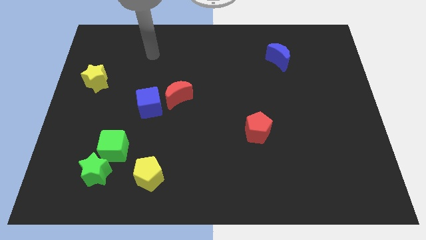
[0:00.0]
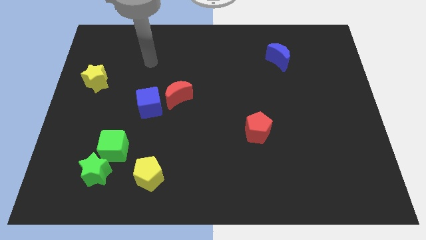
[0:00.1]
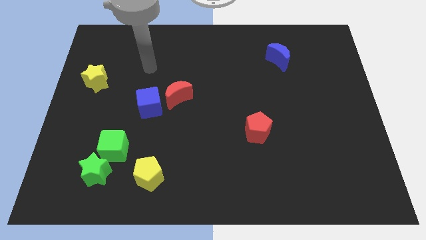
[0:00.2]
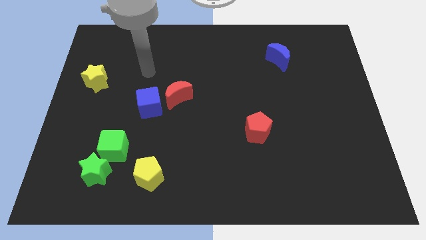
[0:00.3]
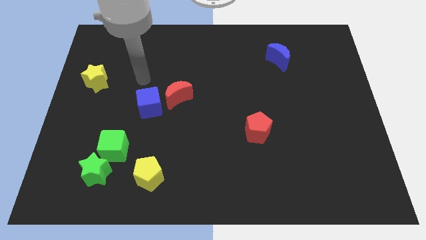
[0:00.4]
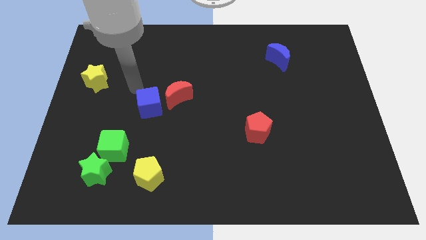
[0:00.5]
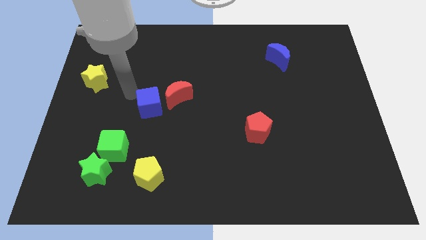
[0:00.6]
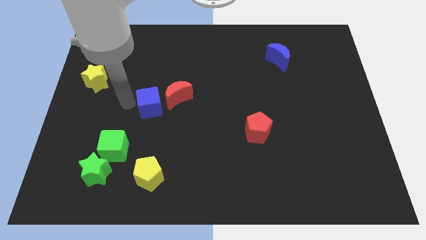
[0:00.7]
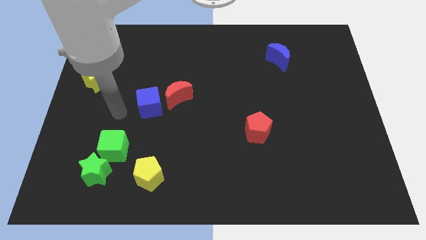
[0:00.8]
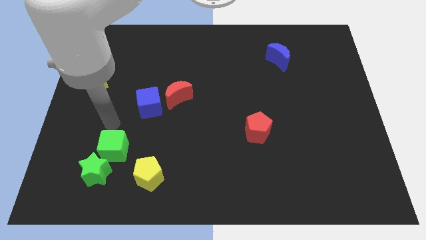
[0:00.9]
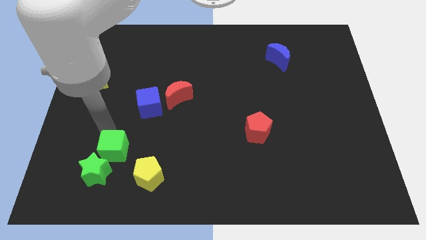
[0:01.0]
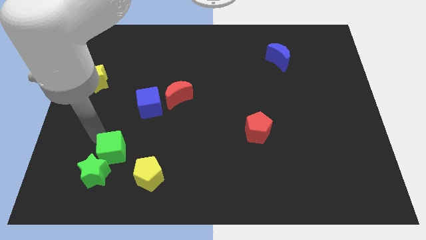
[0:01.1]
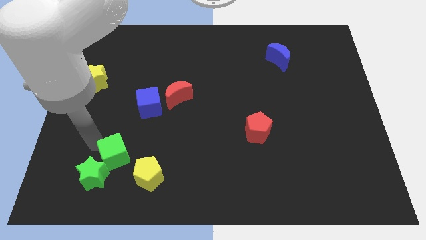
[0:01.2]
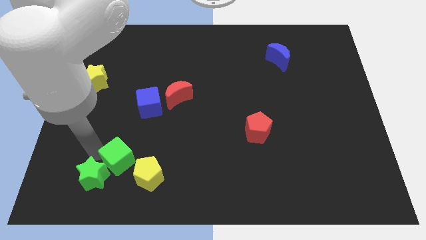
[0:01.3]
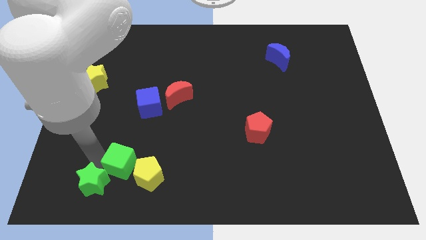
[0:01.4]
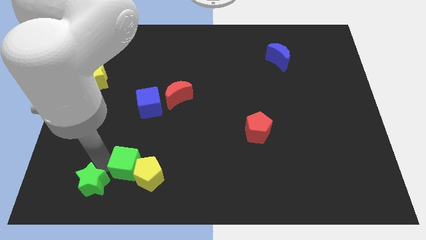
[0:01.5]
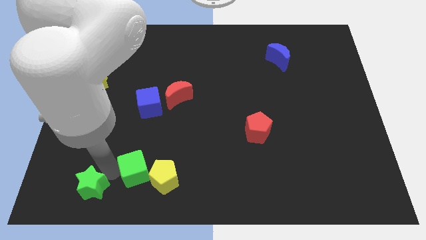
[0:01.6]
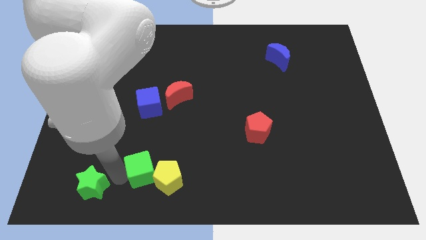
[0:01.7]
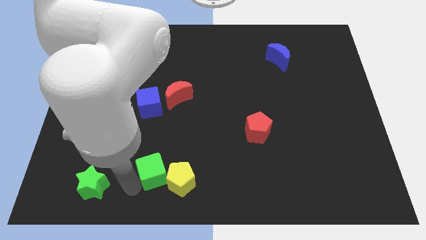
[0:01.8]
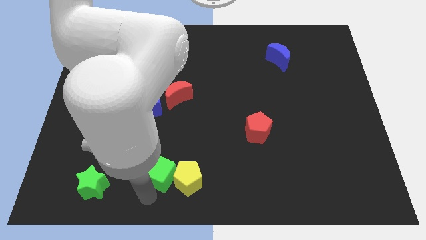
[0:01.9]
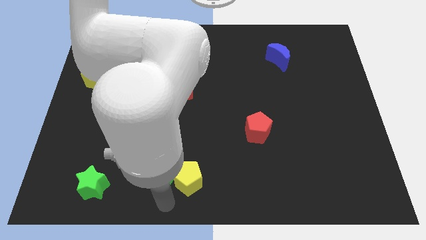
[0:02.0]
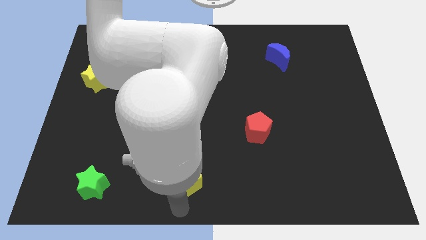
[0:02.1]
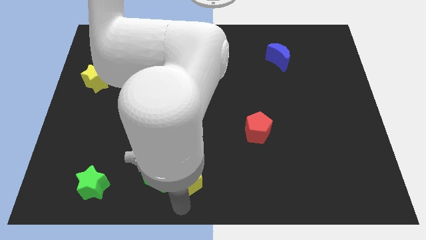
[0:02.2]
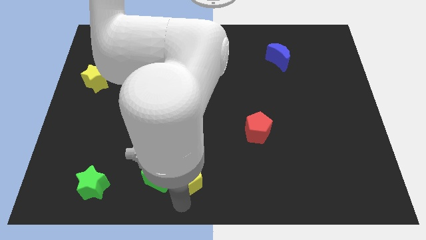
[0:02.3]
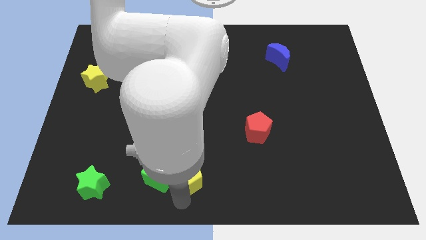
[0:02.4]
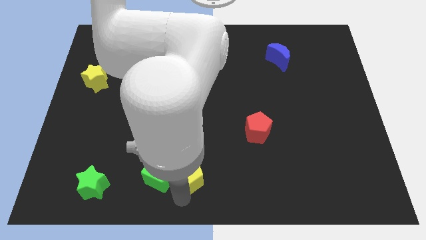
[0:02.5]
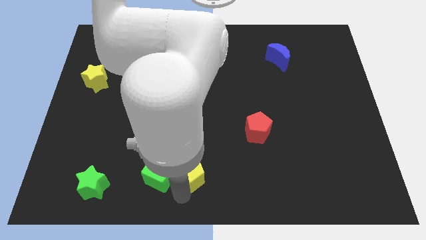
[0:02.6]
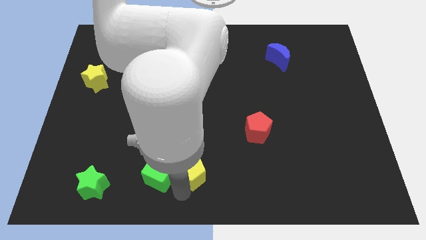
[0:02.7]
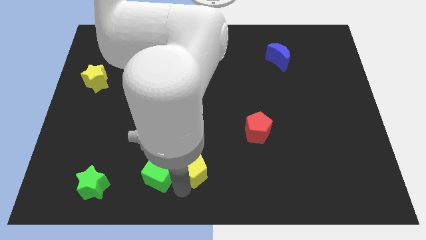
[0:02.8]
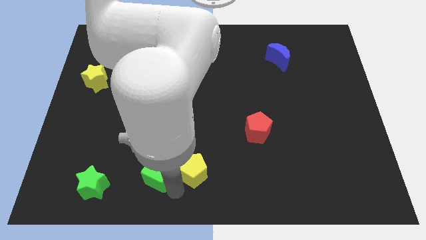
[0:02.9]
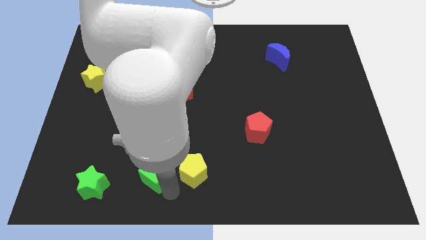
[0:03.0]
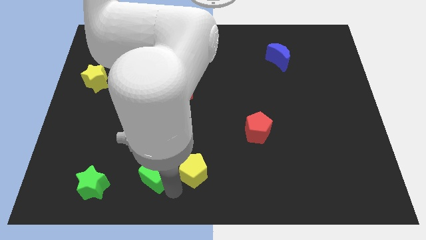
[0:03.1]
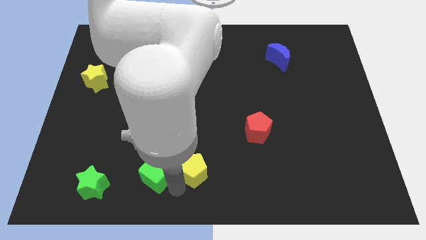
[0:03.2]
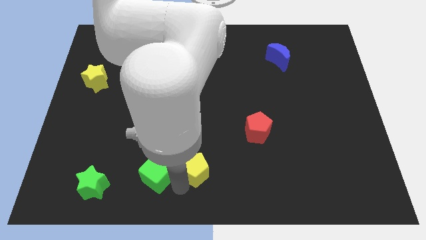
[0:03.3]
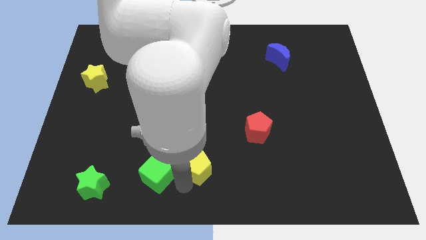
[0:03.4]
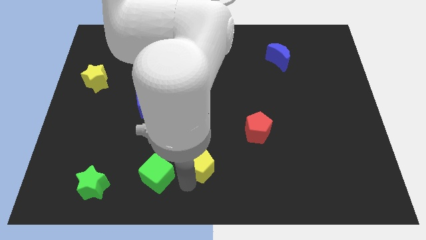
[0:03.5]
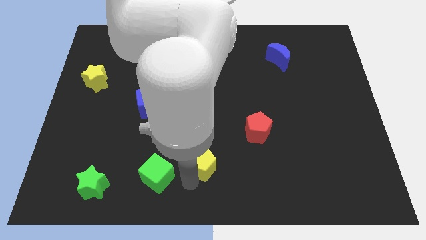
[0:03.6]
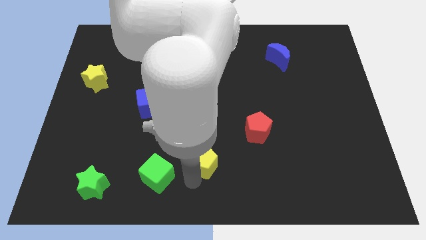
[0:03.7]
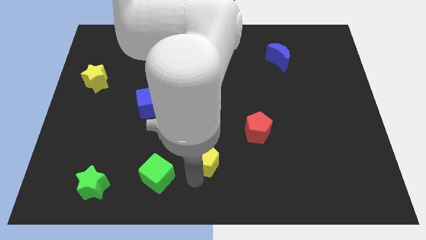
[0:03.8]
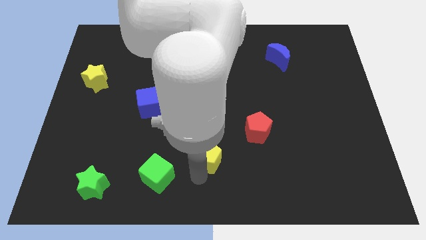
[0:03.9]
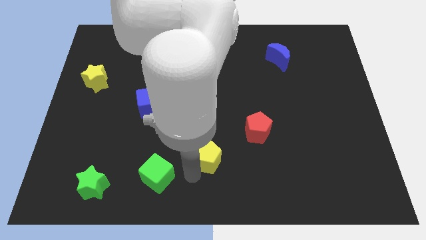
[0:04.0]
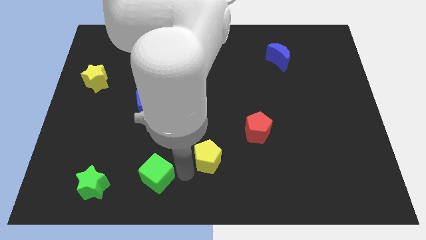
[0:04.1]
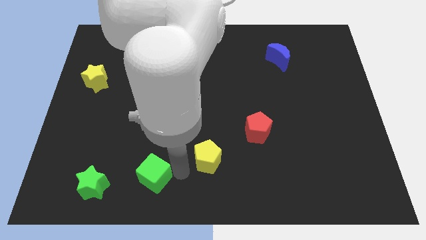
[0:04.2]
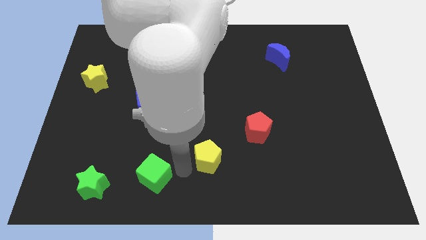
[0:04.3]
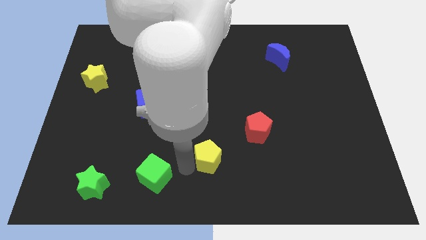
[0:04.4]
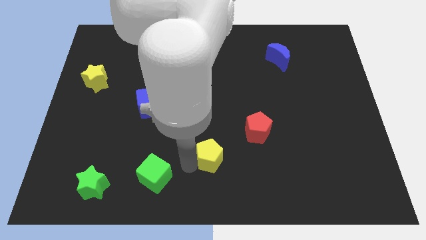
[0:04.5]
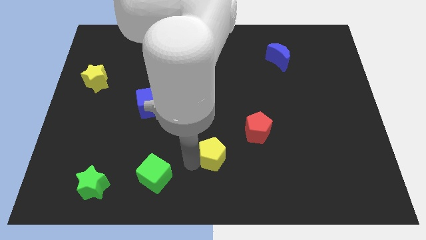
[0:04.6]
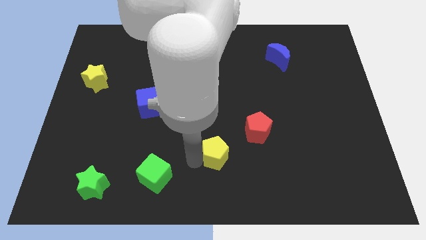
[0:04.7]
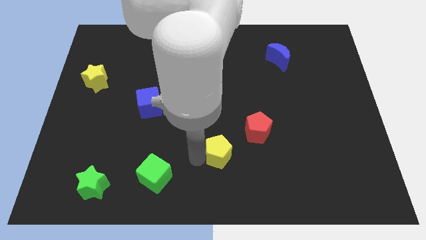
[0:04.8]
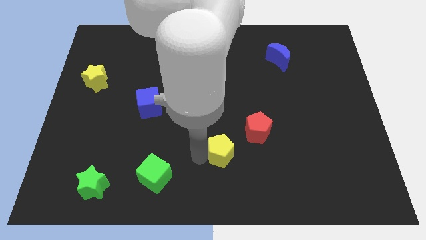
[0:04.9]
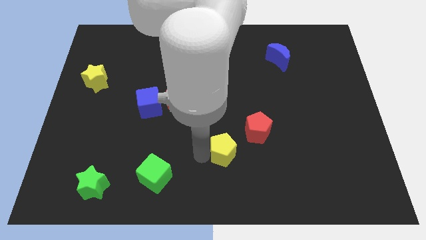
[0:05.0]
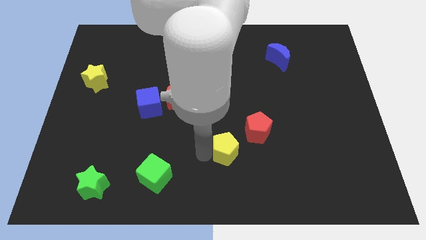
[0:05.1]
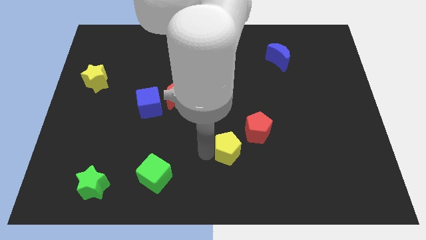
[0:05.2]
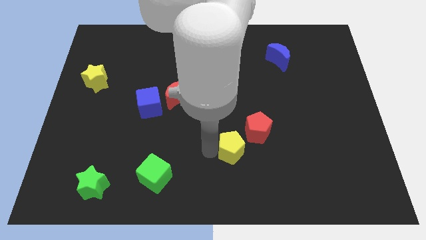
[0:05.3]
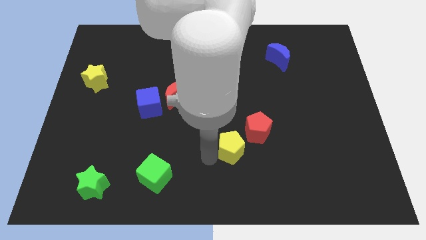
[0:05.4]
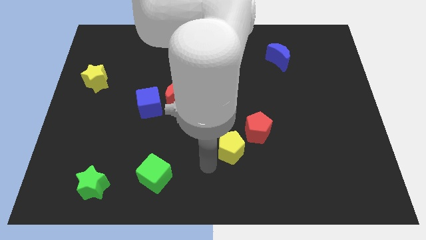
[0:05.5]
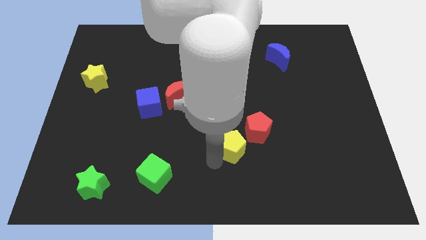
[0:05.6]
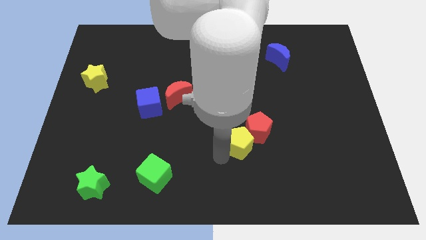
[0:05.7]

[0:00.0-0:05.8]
put the yellow pentagon towards the red pentagon

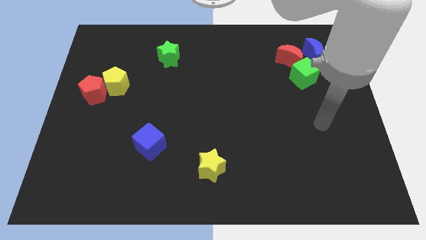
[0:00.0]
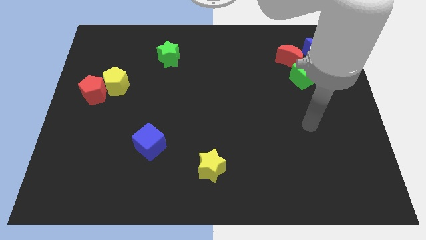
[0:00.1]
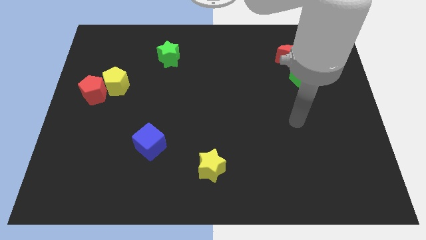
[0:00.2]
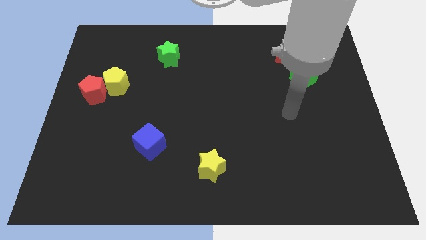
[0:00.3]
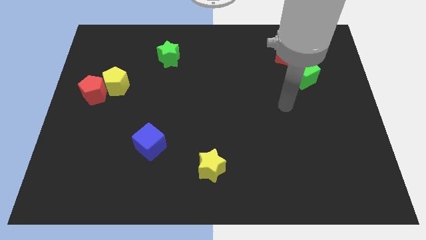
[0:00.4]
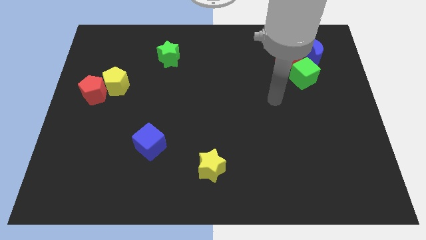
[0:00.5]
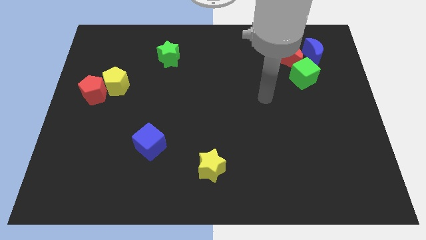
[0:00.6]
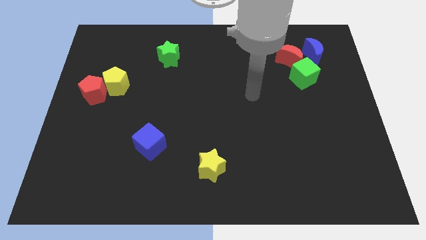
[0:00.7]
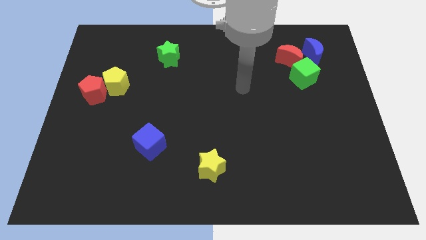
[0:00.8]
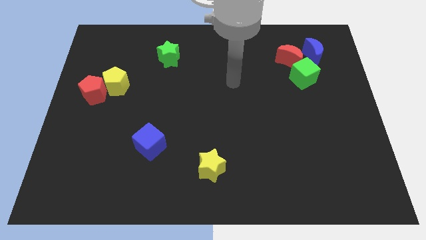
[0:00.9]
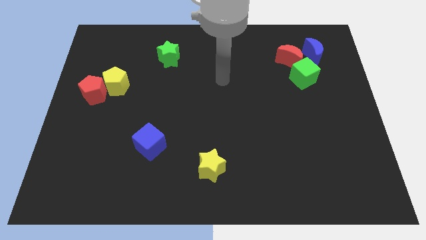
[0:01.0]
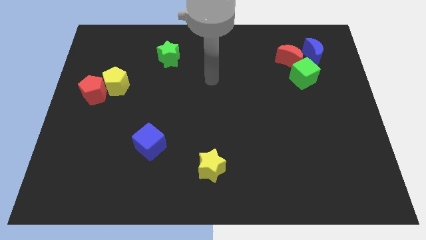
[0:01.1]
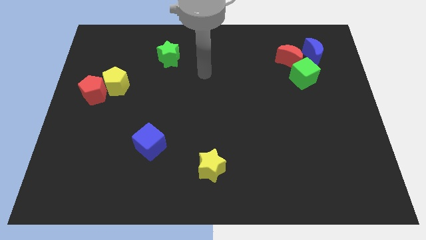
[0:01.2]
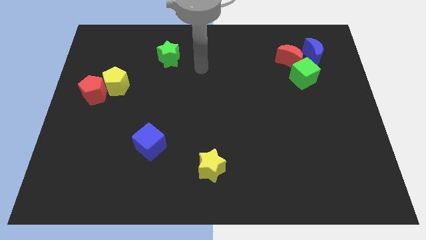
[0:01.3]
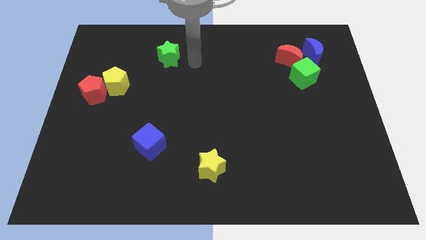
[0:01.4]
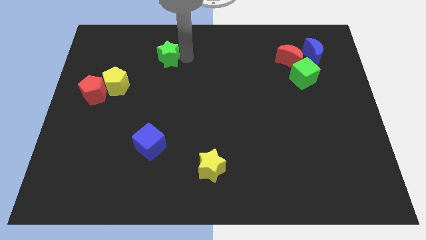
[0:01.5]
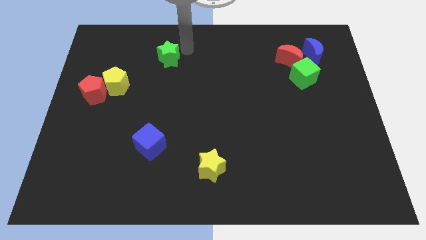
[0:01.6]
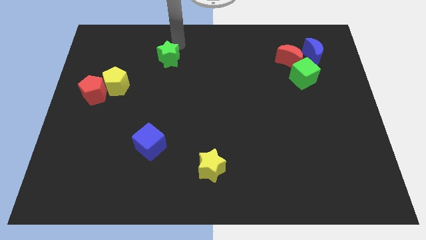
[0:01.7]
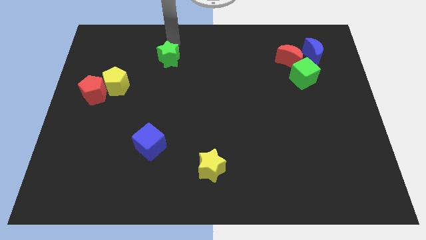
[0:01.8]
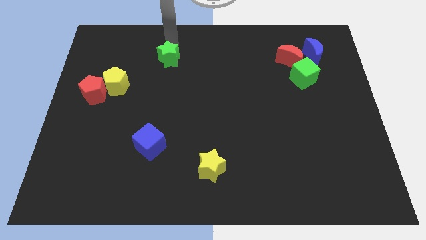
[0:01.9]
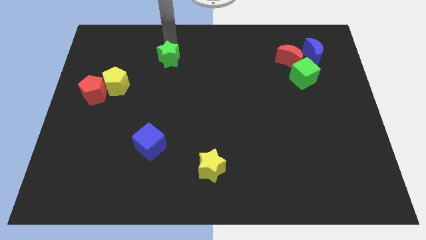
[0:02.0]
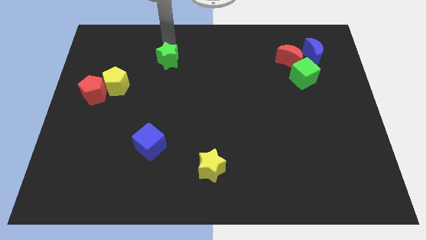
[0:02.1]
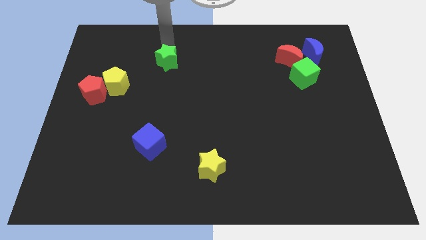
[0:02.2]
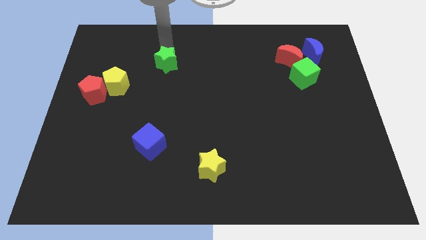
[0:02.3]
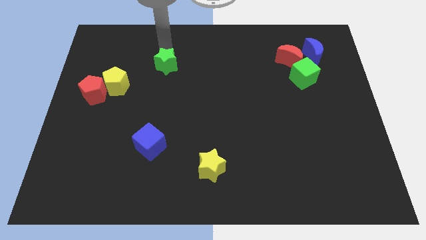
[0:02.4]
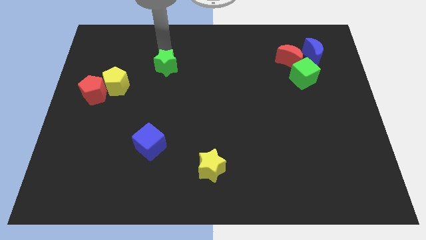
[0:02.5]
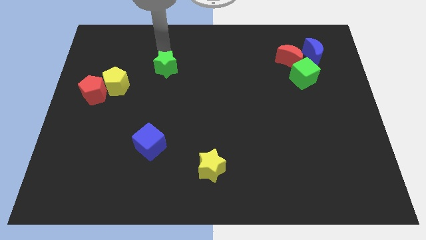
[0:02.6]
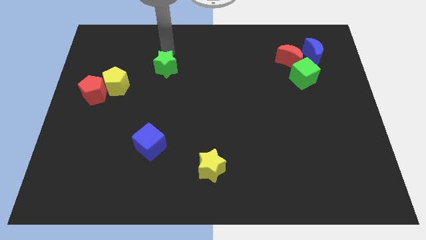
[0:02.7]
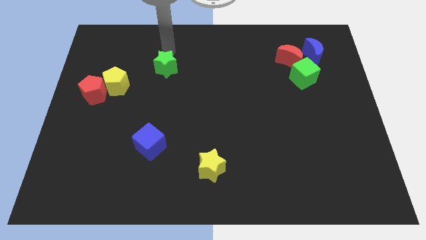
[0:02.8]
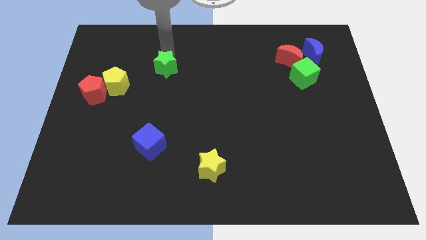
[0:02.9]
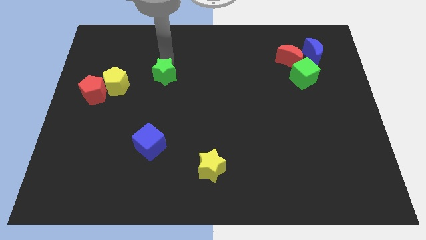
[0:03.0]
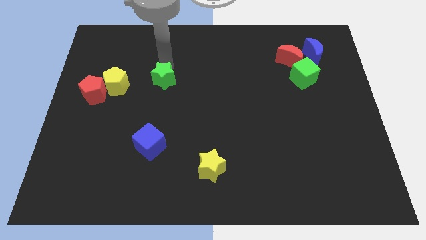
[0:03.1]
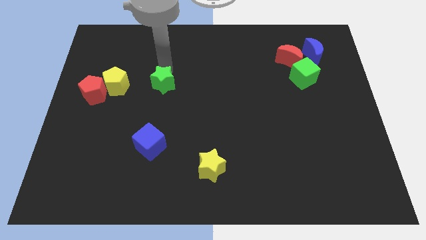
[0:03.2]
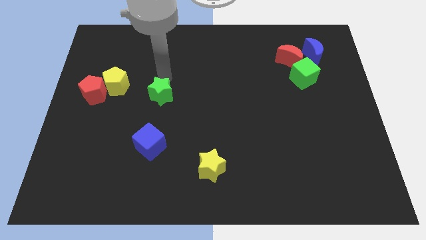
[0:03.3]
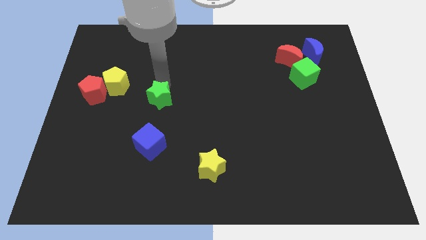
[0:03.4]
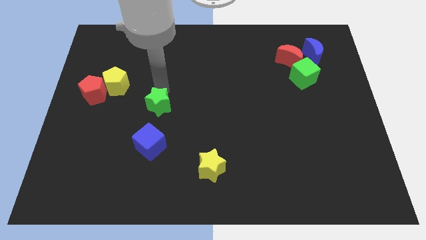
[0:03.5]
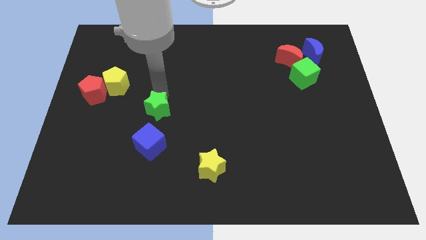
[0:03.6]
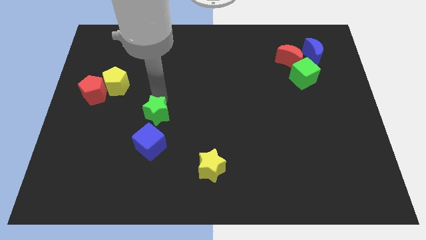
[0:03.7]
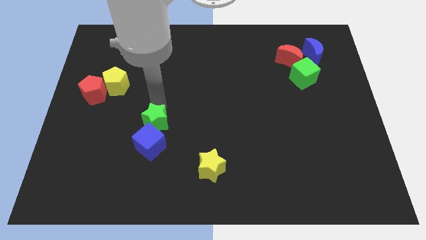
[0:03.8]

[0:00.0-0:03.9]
put the green star close to the blue cube
